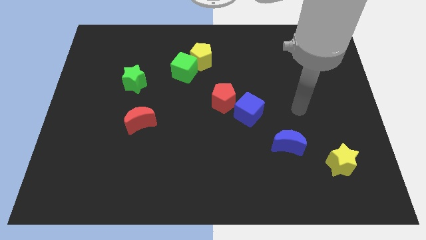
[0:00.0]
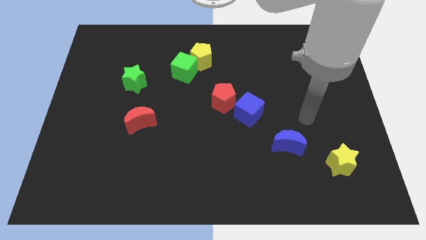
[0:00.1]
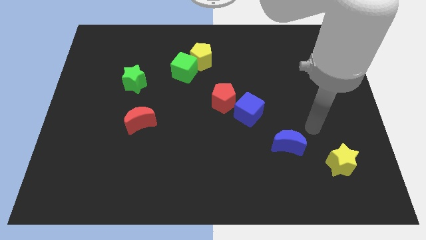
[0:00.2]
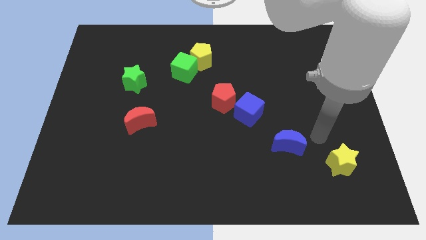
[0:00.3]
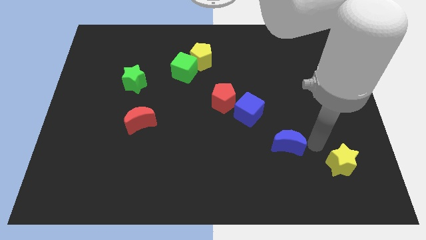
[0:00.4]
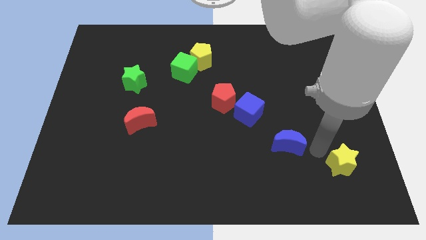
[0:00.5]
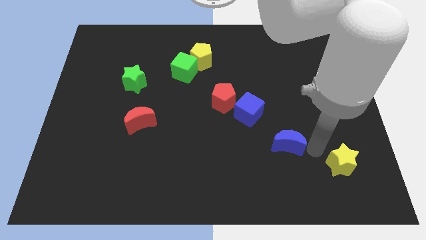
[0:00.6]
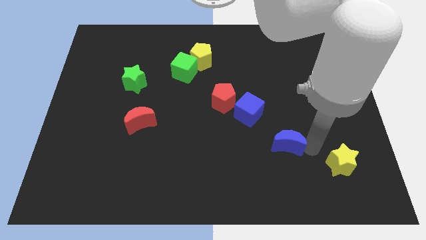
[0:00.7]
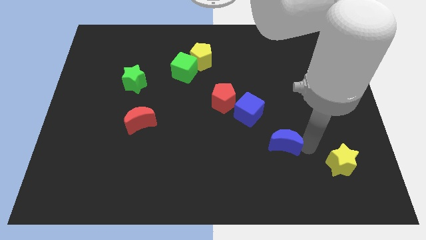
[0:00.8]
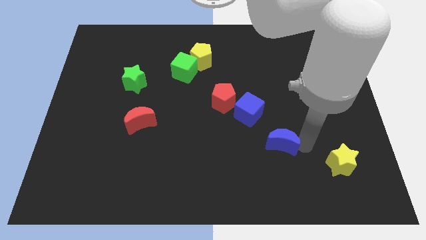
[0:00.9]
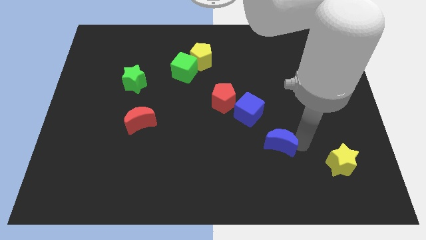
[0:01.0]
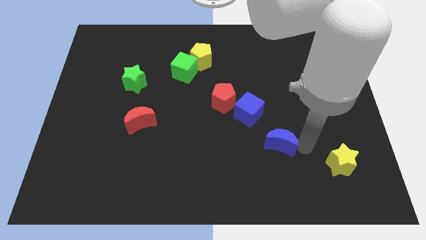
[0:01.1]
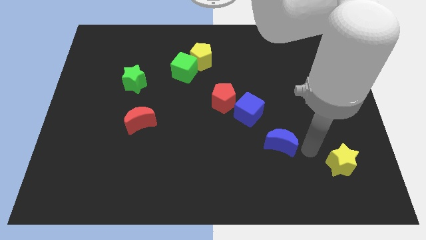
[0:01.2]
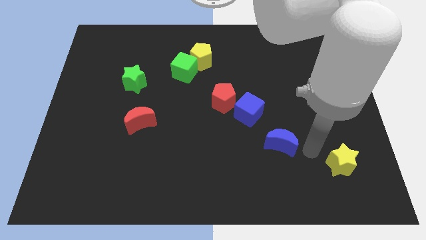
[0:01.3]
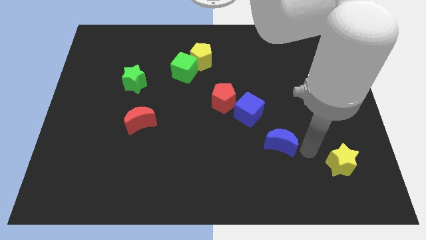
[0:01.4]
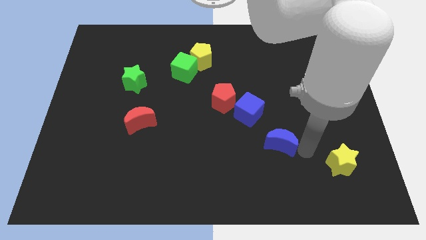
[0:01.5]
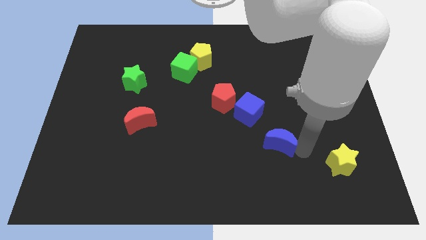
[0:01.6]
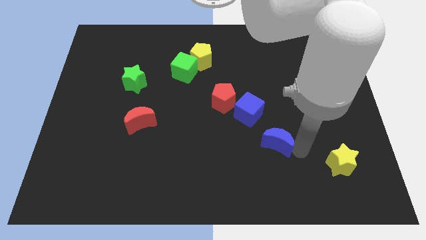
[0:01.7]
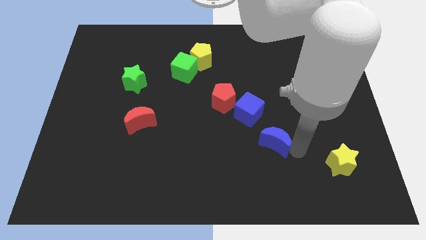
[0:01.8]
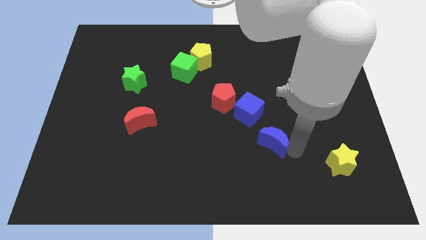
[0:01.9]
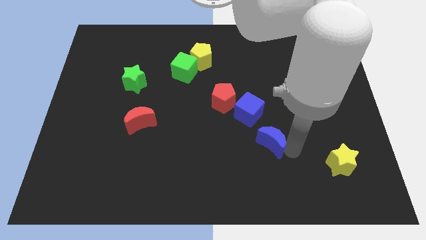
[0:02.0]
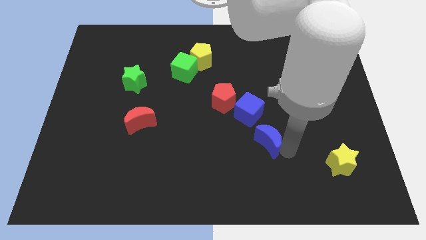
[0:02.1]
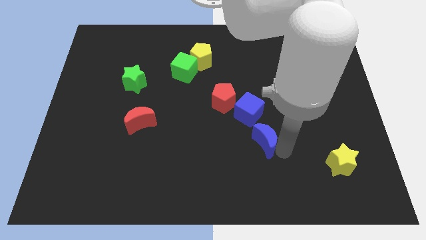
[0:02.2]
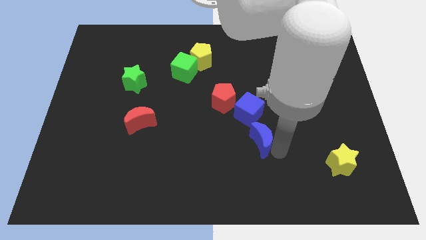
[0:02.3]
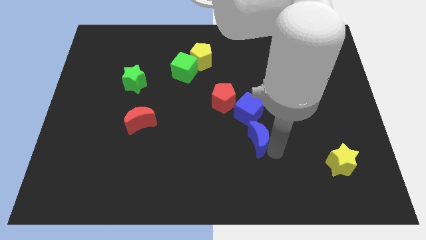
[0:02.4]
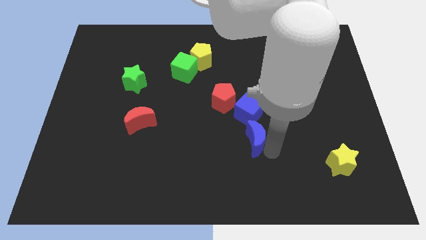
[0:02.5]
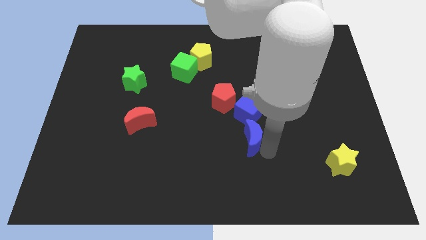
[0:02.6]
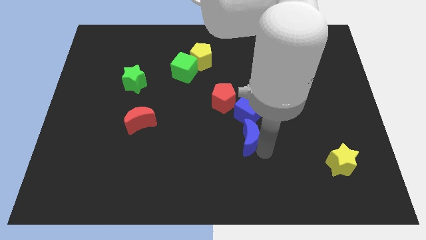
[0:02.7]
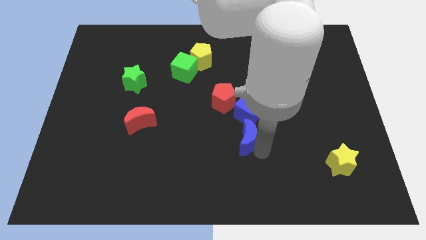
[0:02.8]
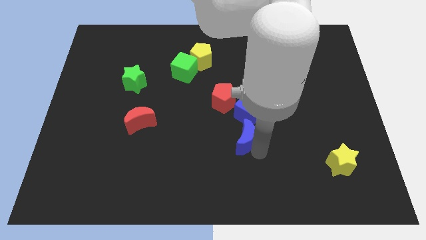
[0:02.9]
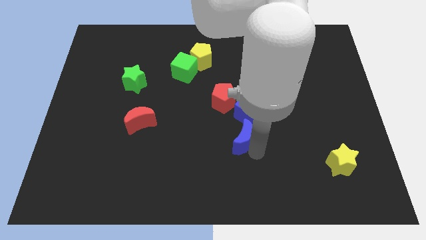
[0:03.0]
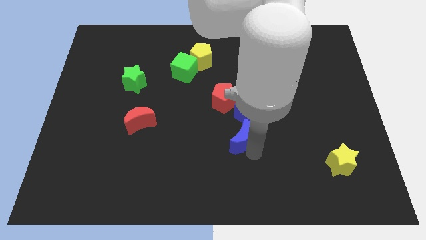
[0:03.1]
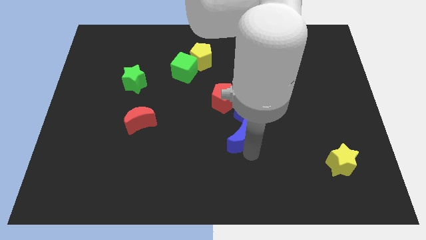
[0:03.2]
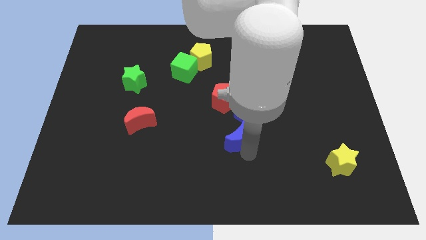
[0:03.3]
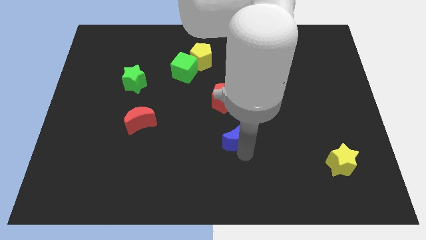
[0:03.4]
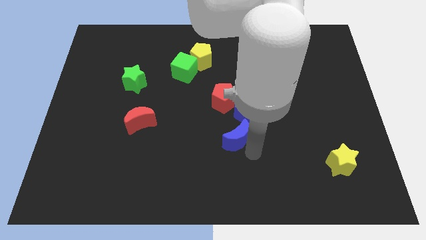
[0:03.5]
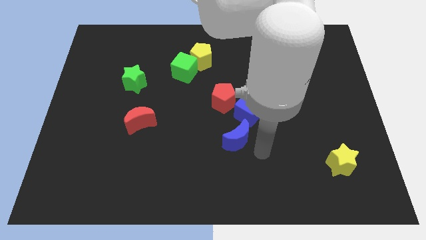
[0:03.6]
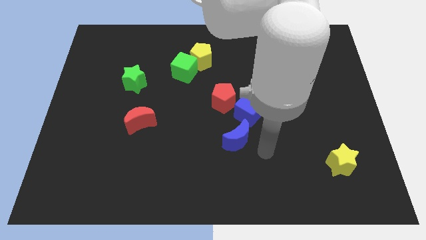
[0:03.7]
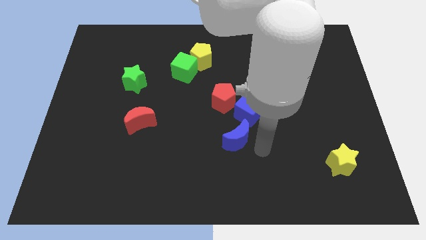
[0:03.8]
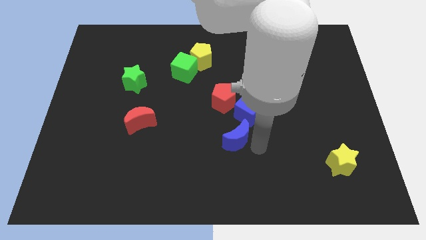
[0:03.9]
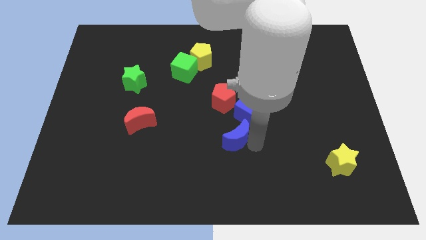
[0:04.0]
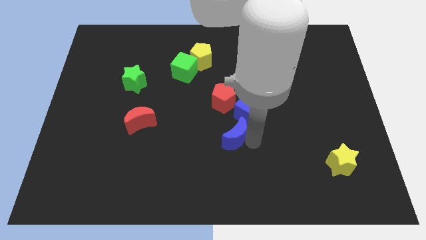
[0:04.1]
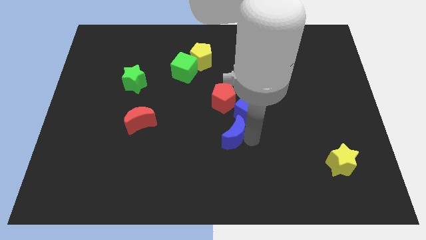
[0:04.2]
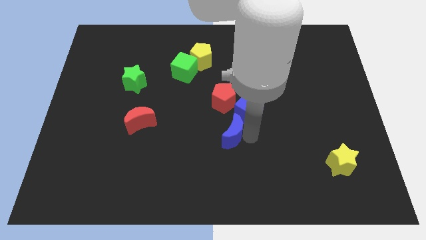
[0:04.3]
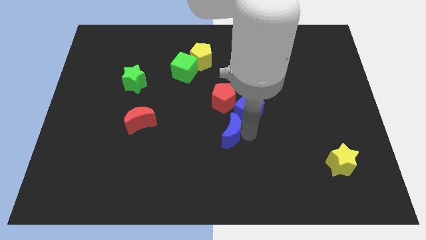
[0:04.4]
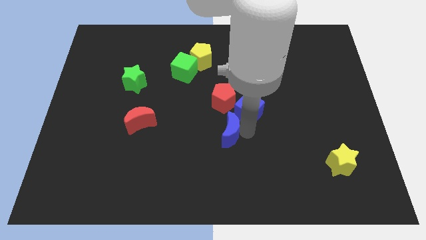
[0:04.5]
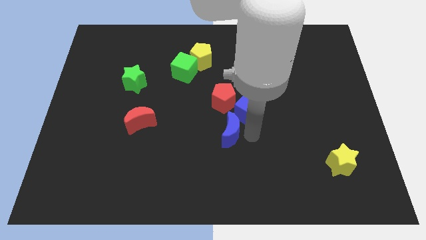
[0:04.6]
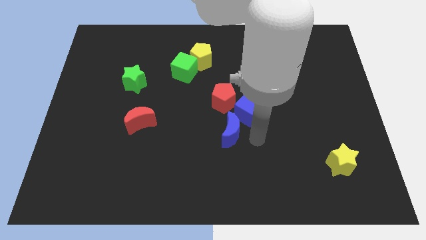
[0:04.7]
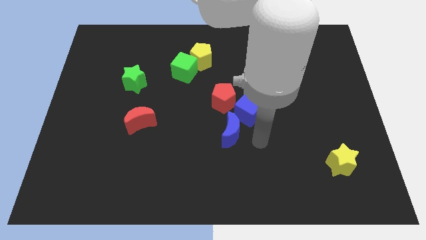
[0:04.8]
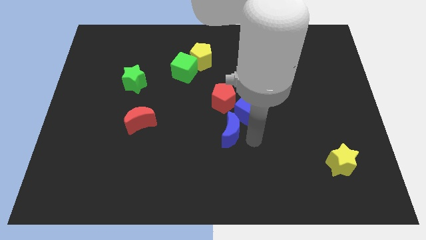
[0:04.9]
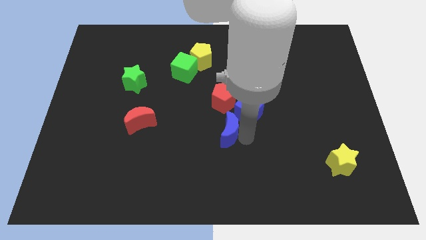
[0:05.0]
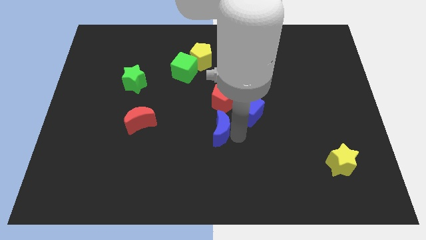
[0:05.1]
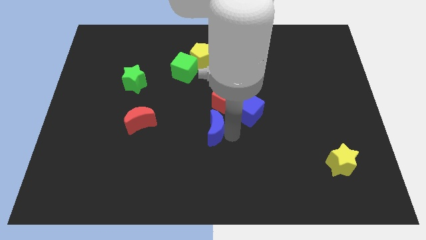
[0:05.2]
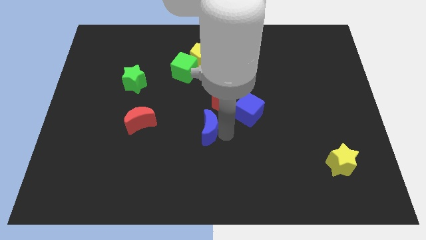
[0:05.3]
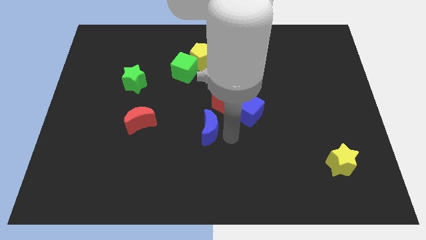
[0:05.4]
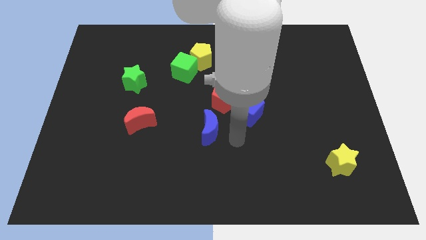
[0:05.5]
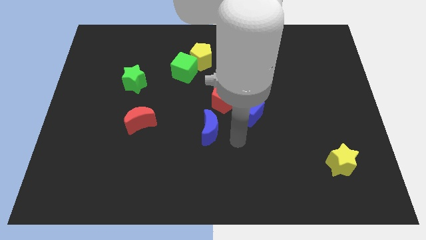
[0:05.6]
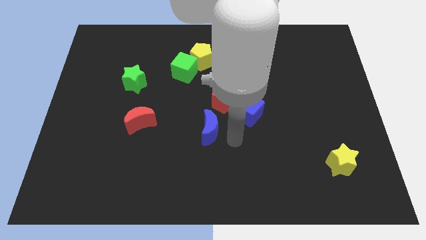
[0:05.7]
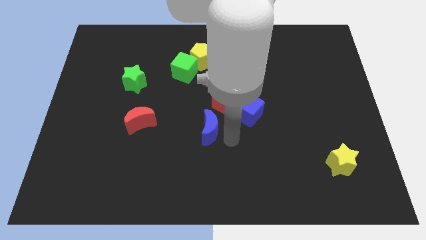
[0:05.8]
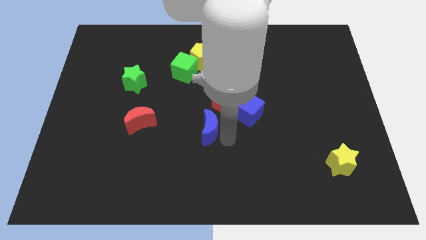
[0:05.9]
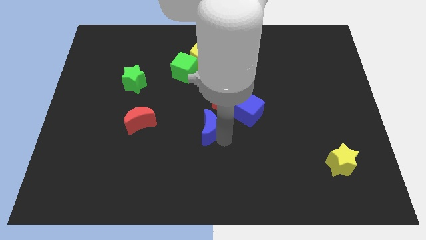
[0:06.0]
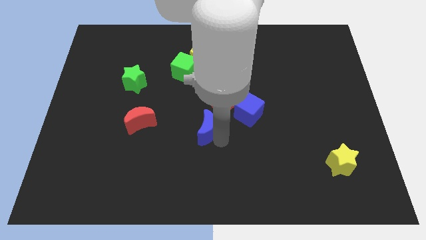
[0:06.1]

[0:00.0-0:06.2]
push the blue moon to the right of the red moon
